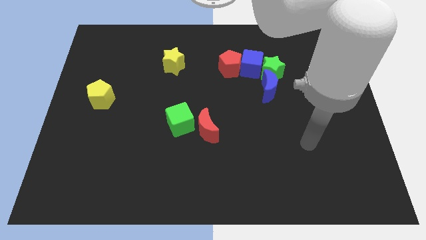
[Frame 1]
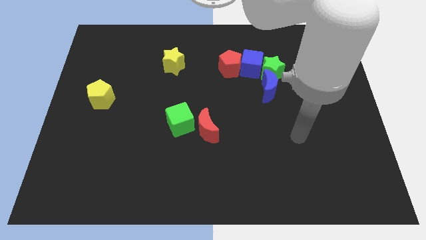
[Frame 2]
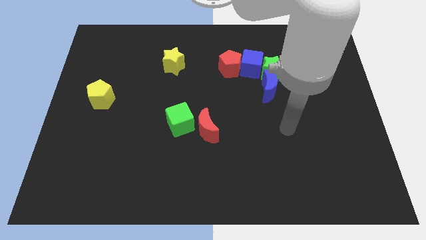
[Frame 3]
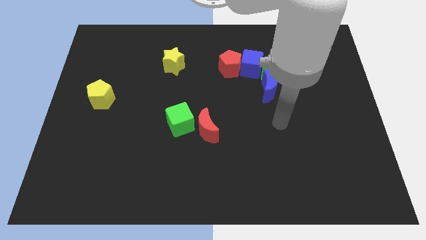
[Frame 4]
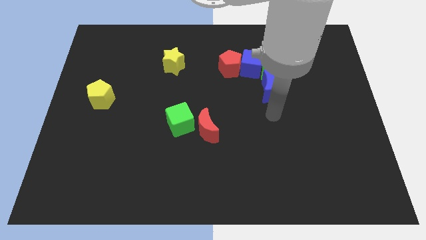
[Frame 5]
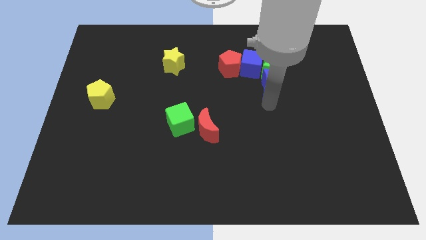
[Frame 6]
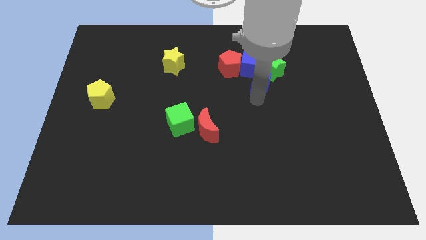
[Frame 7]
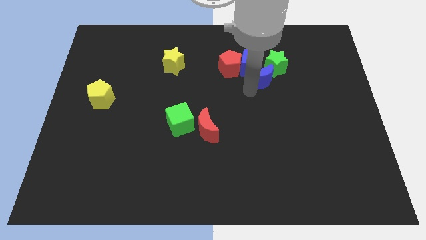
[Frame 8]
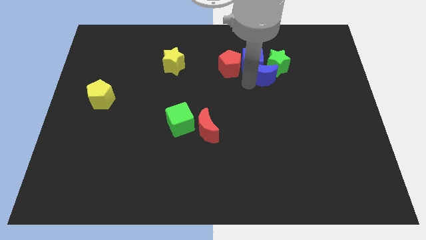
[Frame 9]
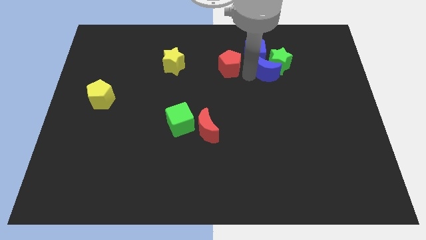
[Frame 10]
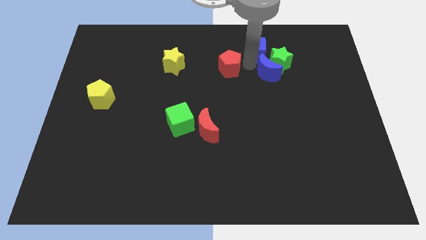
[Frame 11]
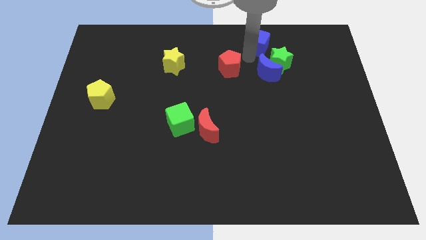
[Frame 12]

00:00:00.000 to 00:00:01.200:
separate the red pentagon from the blue cube

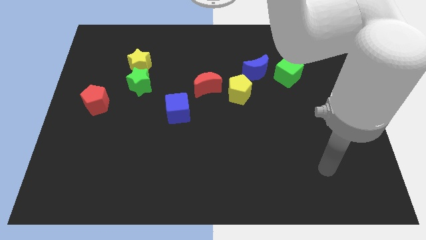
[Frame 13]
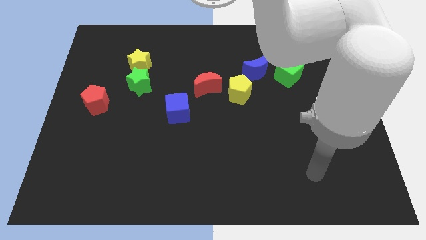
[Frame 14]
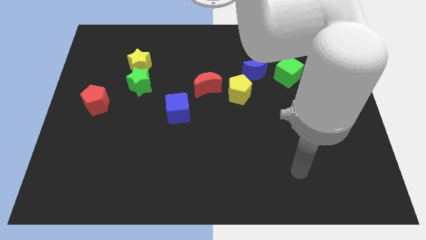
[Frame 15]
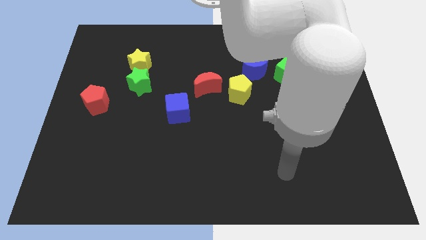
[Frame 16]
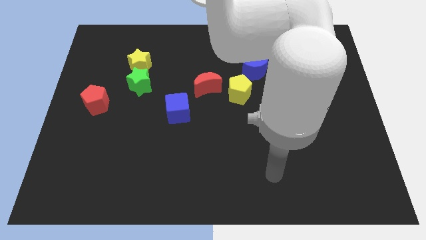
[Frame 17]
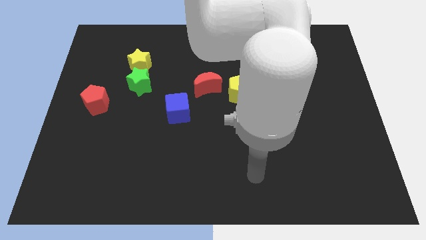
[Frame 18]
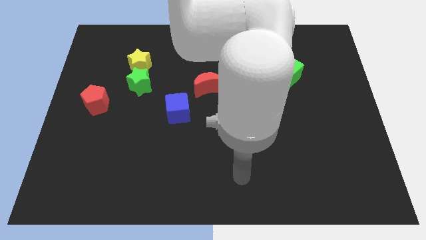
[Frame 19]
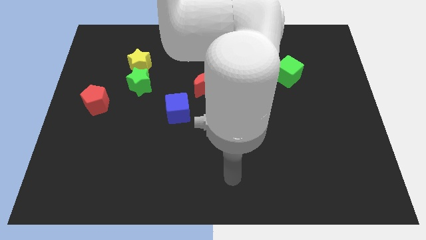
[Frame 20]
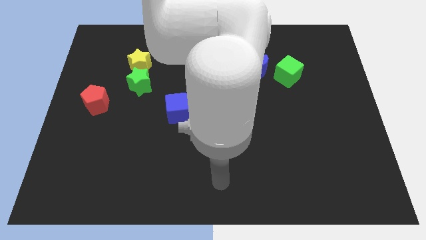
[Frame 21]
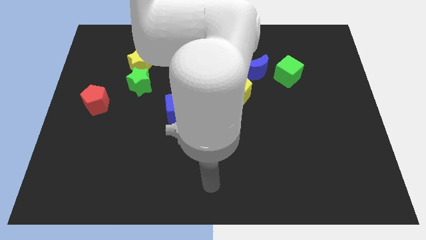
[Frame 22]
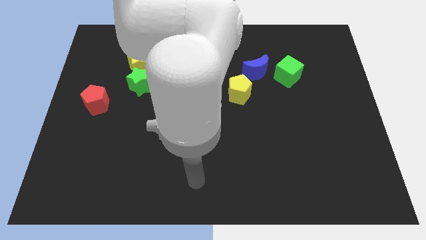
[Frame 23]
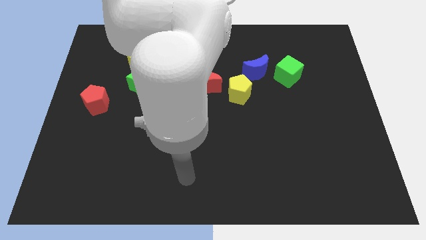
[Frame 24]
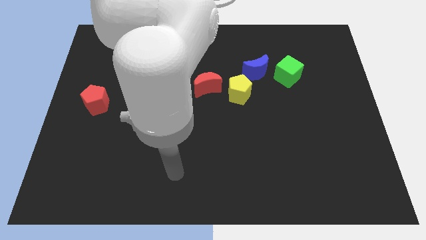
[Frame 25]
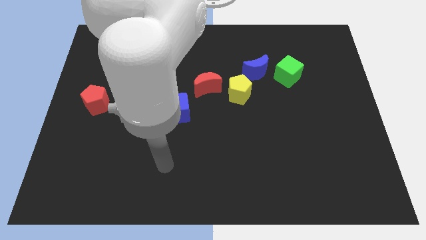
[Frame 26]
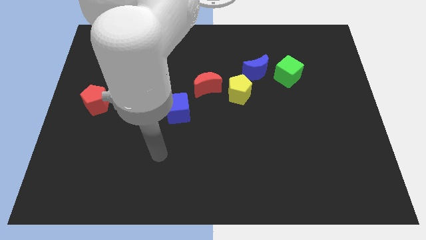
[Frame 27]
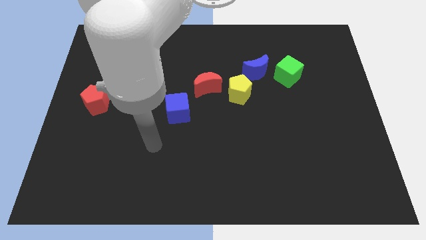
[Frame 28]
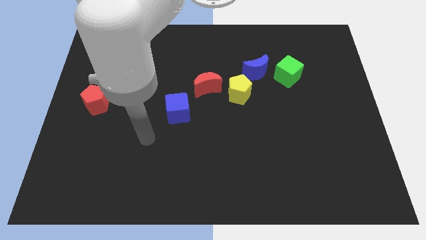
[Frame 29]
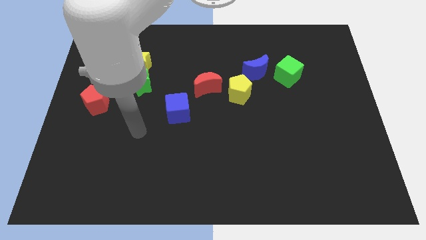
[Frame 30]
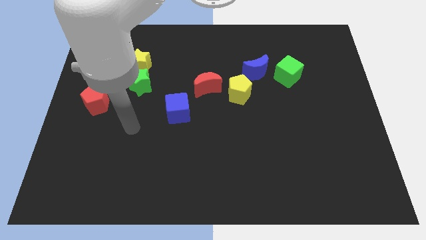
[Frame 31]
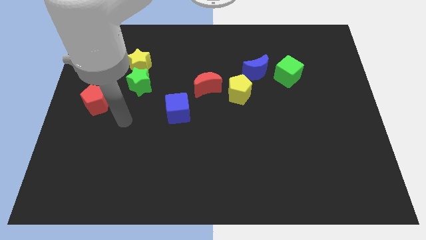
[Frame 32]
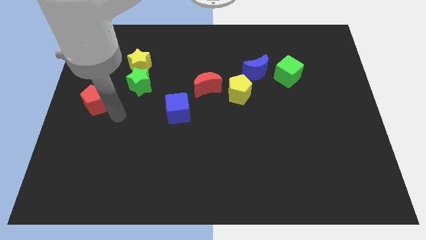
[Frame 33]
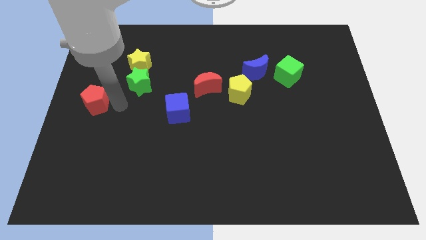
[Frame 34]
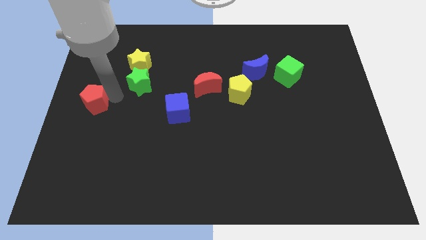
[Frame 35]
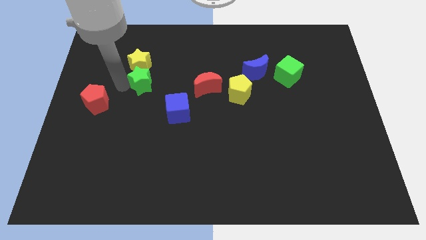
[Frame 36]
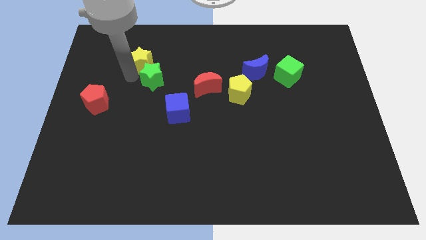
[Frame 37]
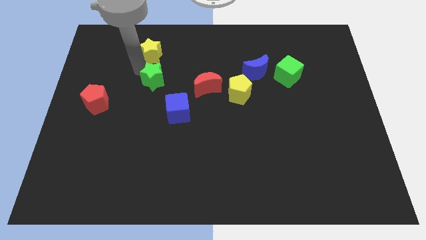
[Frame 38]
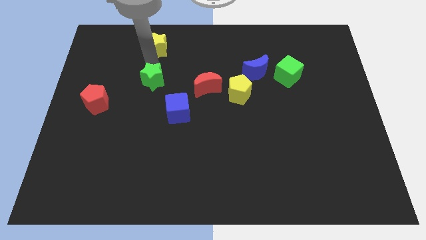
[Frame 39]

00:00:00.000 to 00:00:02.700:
pull the green star apart from the yellow star

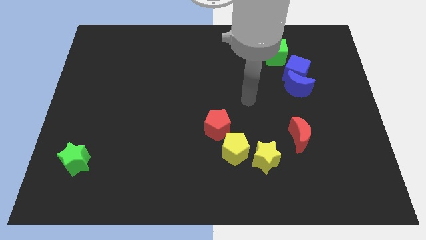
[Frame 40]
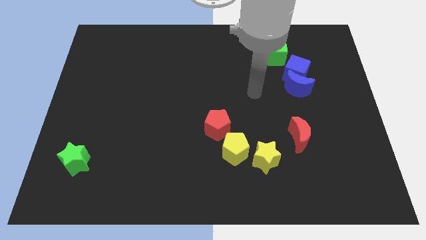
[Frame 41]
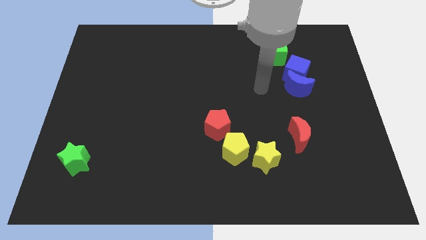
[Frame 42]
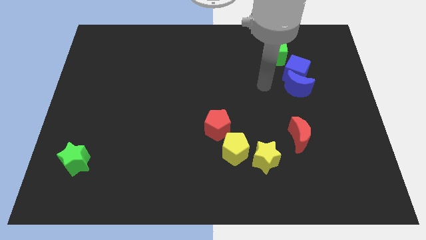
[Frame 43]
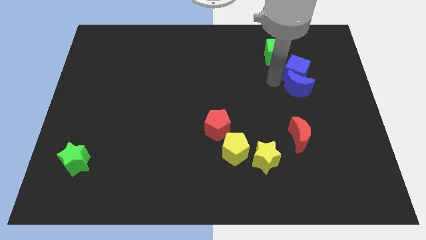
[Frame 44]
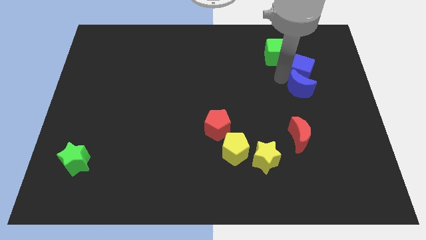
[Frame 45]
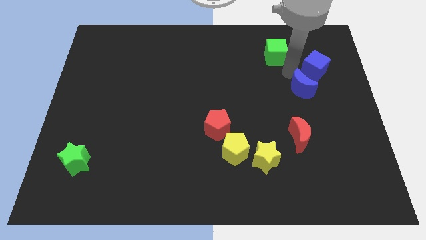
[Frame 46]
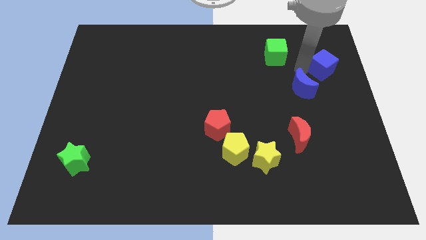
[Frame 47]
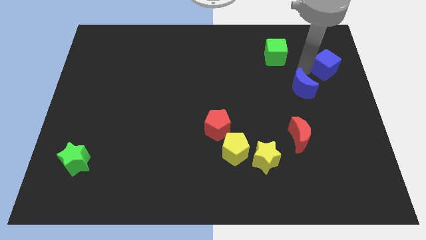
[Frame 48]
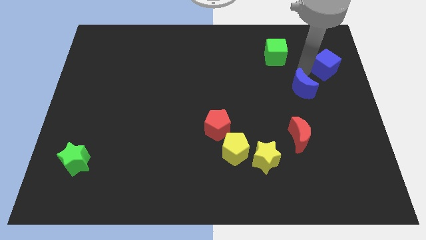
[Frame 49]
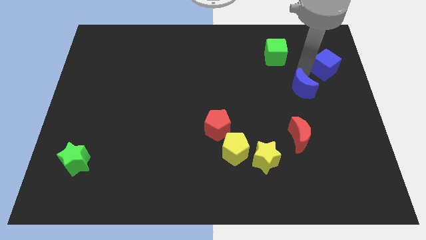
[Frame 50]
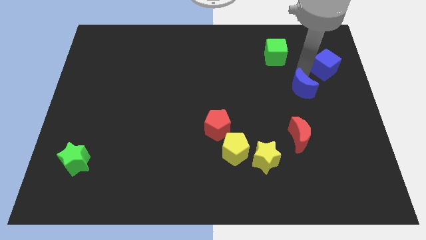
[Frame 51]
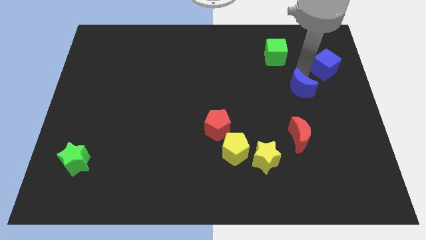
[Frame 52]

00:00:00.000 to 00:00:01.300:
move the blue moon away from the blue cube

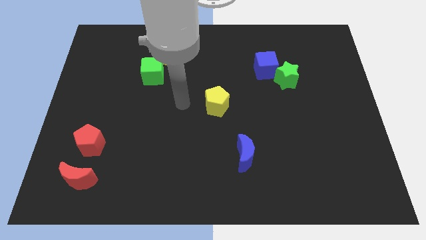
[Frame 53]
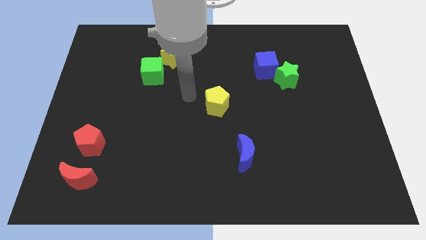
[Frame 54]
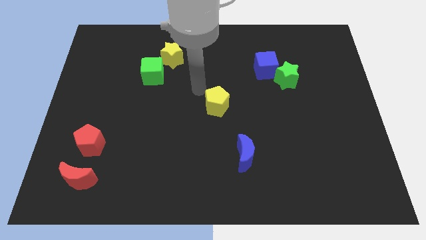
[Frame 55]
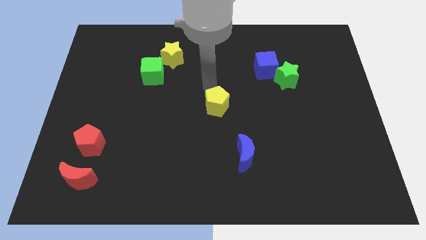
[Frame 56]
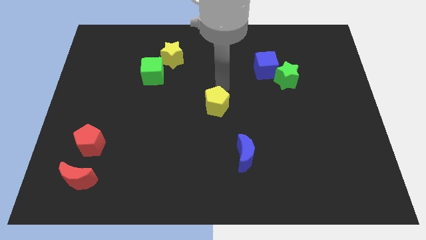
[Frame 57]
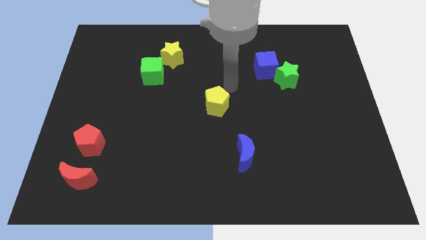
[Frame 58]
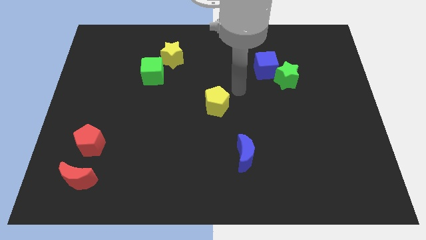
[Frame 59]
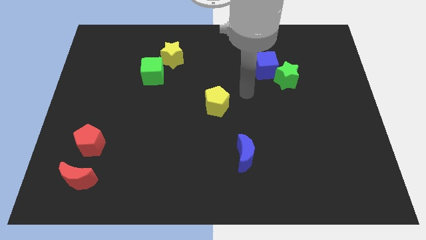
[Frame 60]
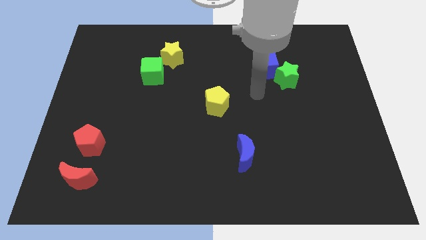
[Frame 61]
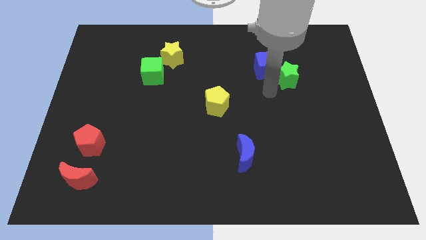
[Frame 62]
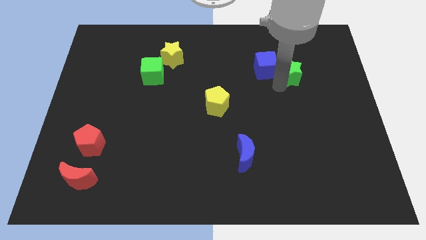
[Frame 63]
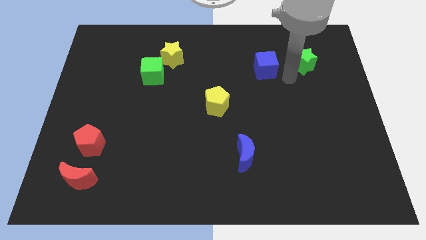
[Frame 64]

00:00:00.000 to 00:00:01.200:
pull the blue cube apart from the green star

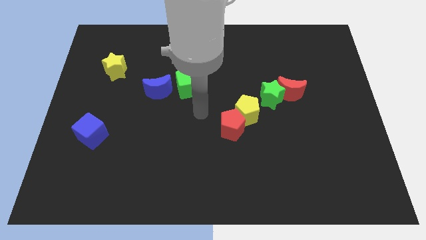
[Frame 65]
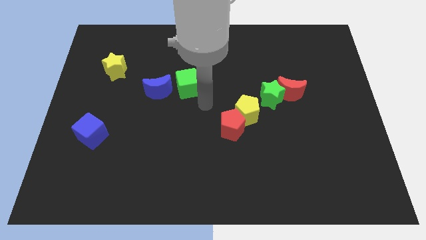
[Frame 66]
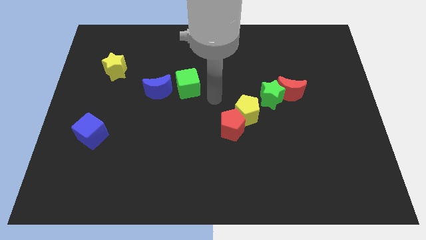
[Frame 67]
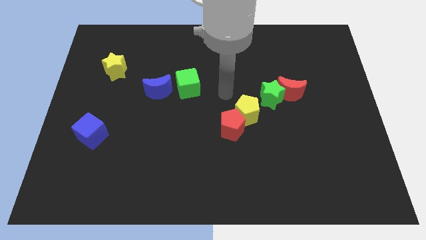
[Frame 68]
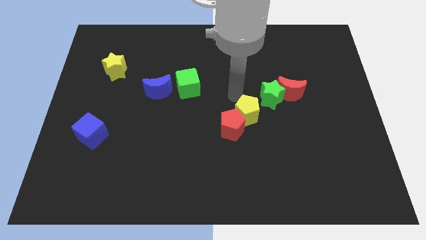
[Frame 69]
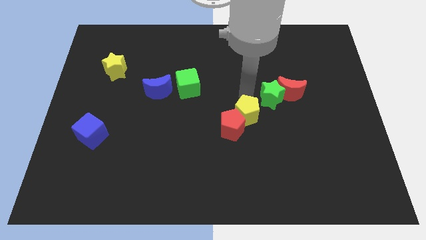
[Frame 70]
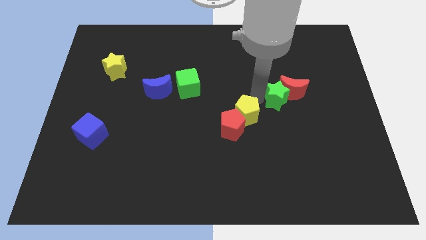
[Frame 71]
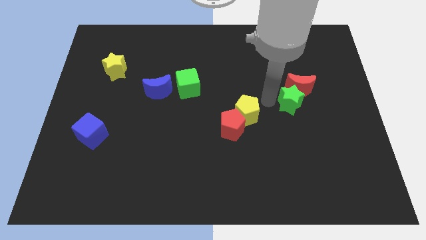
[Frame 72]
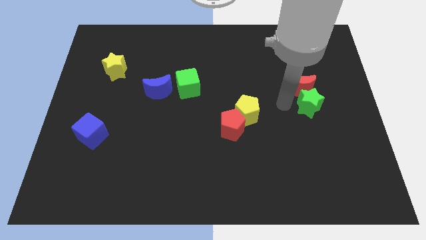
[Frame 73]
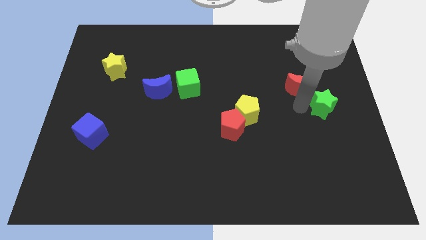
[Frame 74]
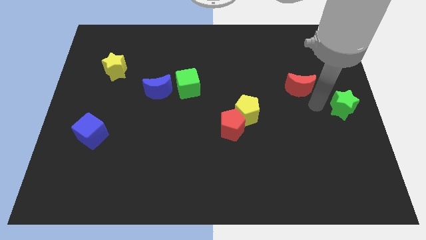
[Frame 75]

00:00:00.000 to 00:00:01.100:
separate the red moon from the green star

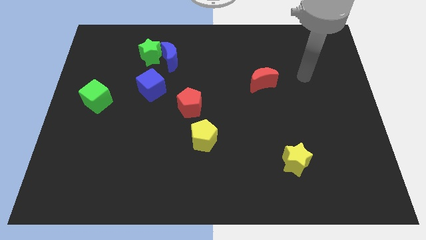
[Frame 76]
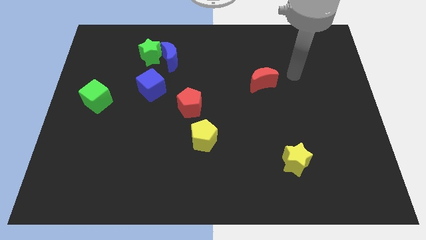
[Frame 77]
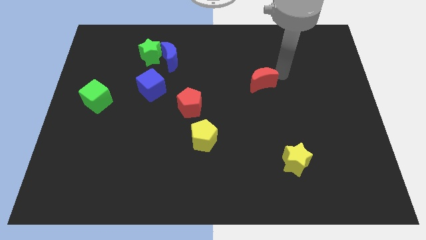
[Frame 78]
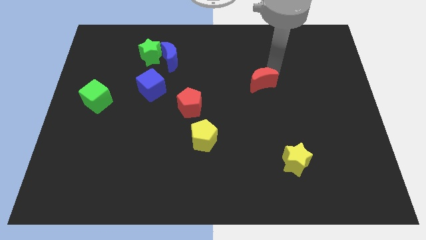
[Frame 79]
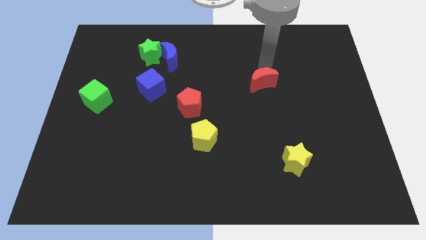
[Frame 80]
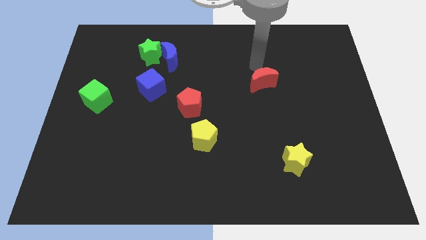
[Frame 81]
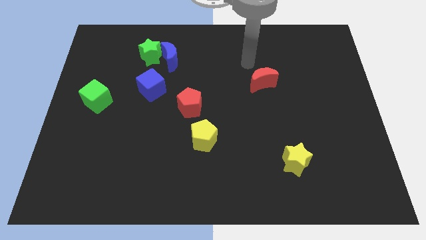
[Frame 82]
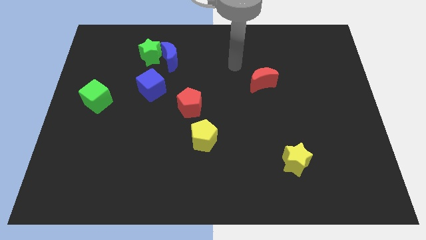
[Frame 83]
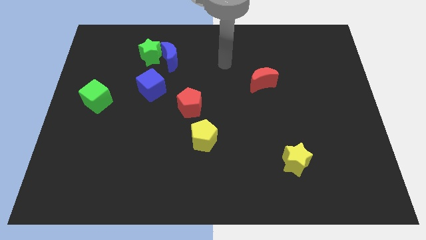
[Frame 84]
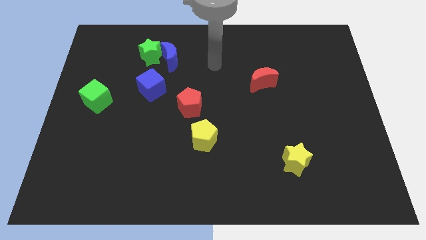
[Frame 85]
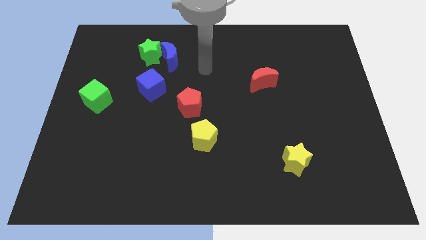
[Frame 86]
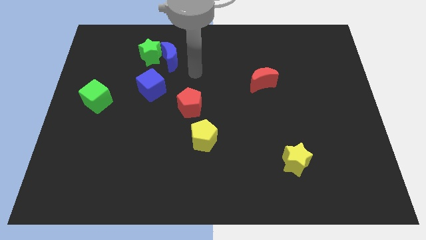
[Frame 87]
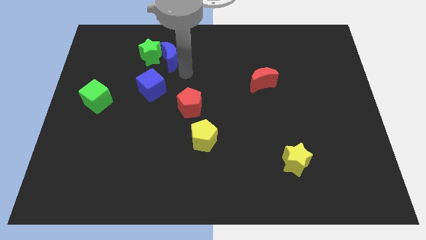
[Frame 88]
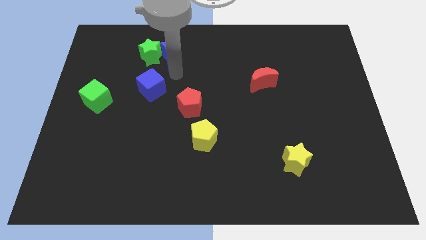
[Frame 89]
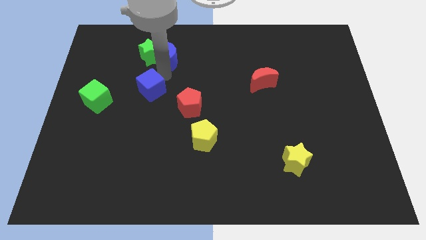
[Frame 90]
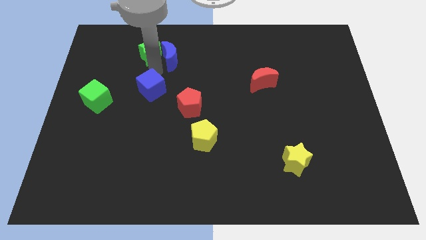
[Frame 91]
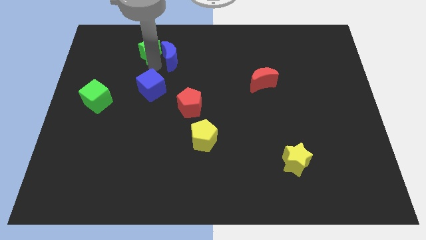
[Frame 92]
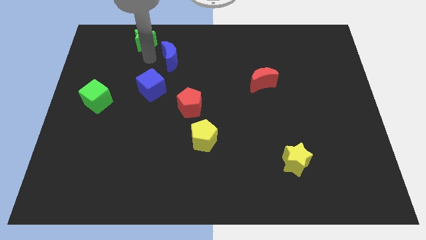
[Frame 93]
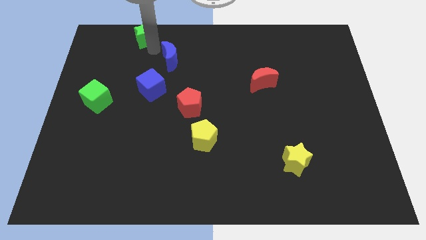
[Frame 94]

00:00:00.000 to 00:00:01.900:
move the blue moon away from the green star
